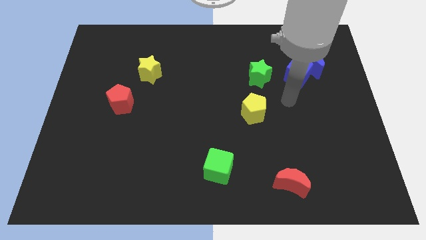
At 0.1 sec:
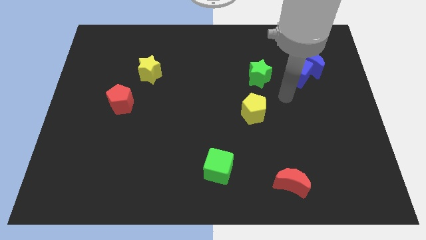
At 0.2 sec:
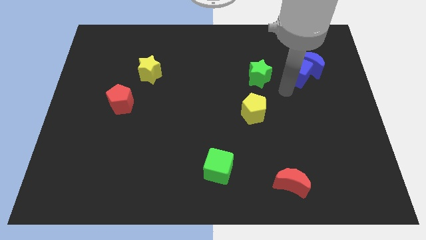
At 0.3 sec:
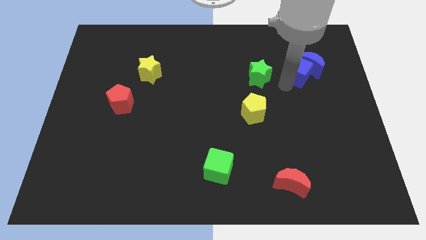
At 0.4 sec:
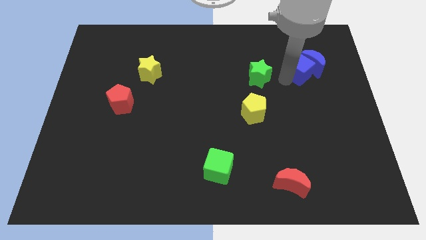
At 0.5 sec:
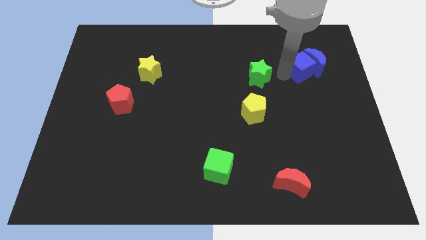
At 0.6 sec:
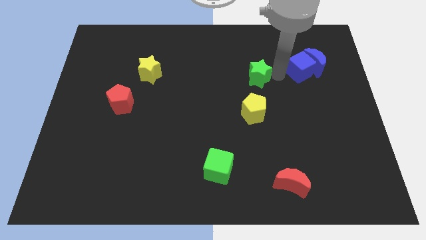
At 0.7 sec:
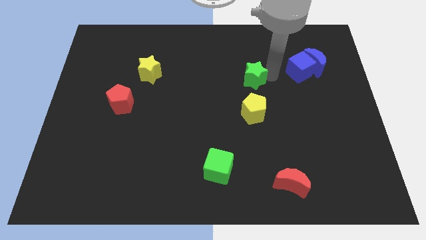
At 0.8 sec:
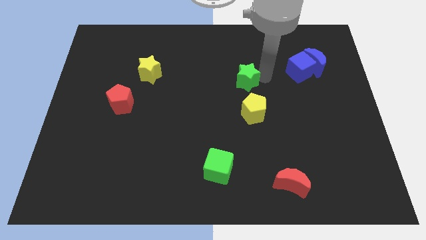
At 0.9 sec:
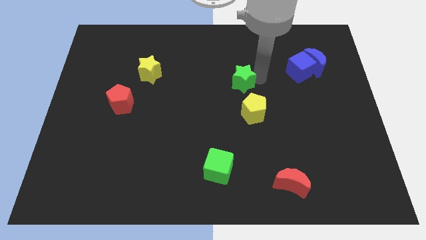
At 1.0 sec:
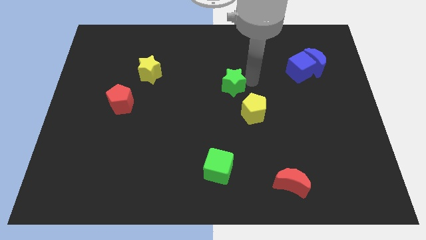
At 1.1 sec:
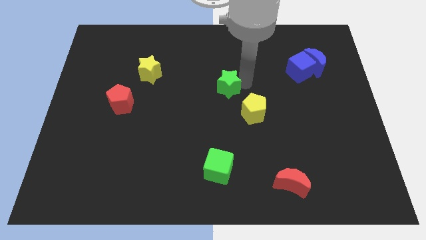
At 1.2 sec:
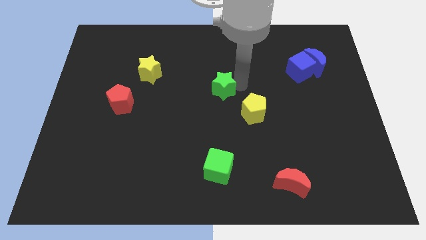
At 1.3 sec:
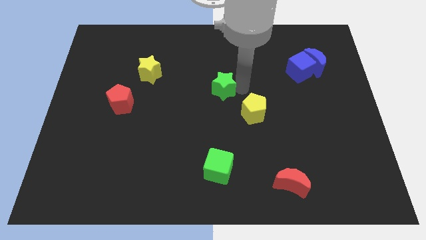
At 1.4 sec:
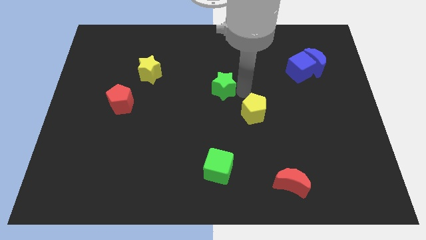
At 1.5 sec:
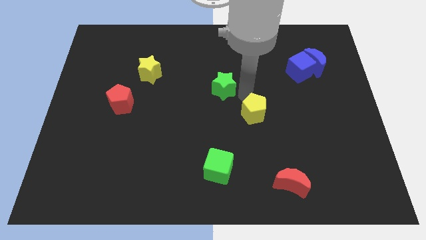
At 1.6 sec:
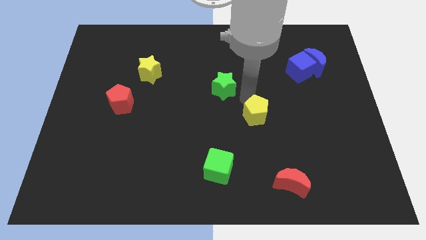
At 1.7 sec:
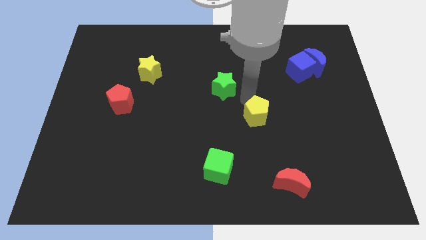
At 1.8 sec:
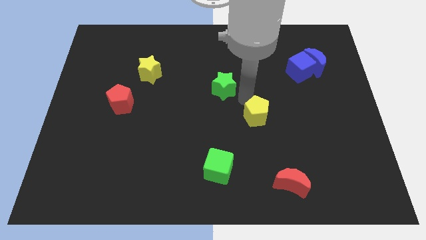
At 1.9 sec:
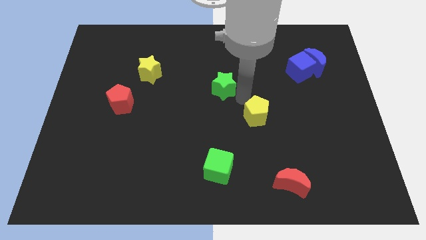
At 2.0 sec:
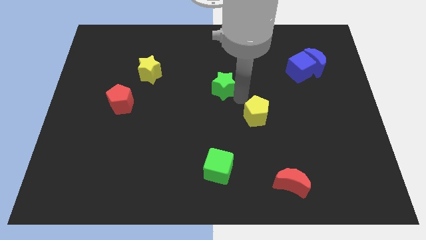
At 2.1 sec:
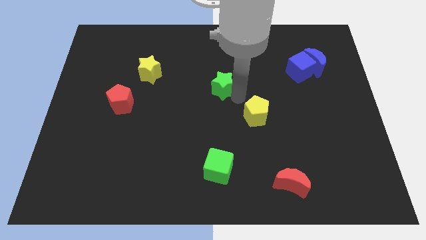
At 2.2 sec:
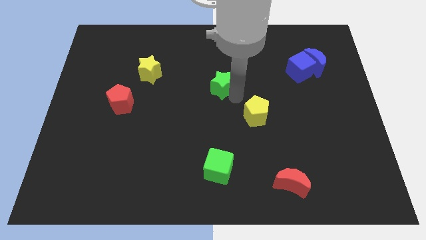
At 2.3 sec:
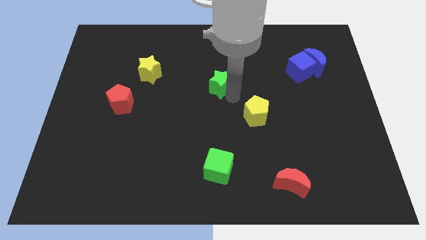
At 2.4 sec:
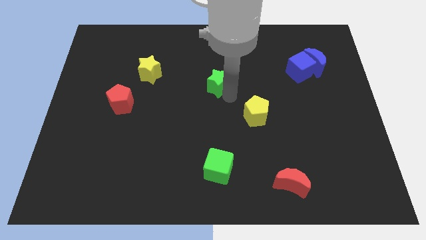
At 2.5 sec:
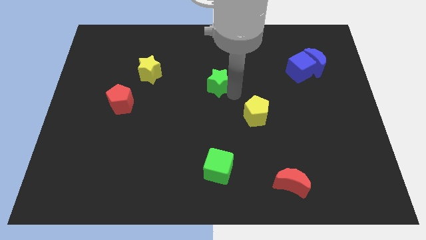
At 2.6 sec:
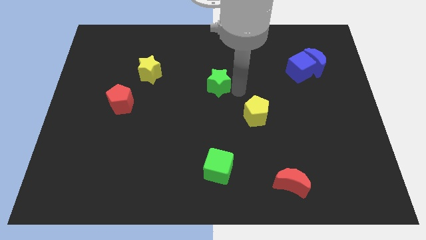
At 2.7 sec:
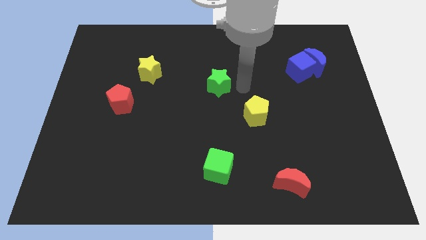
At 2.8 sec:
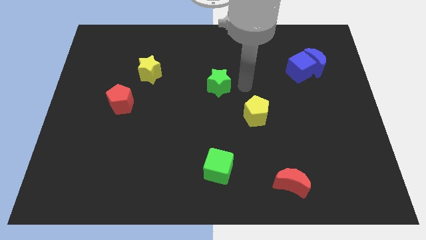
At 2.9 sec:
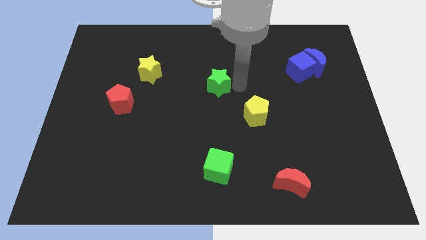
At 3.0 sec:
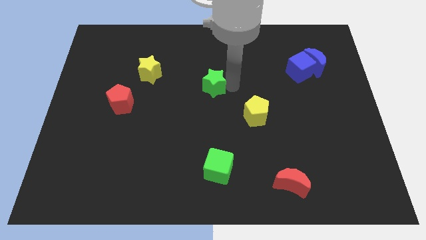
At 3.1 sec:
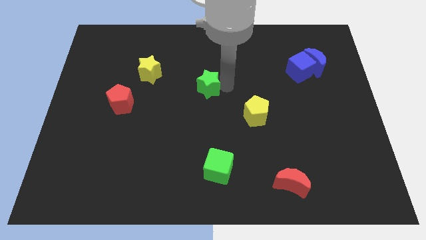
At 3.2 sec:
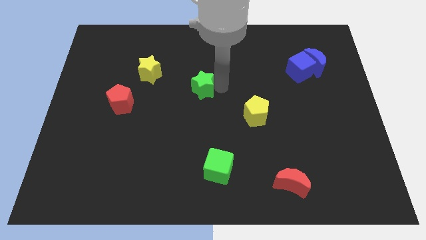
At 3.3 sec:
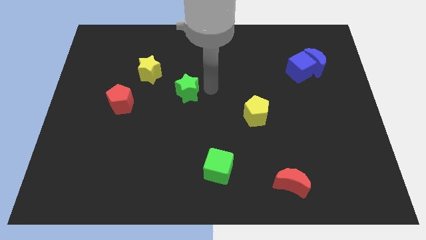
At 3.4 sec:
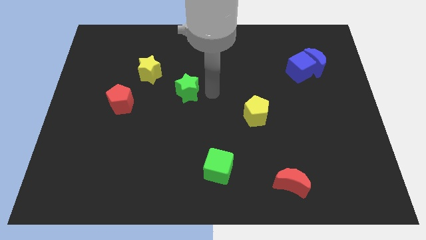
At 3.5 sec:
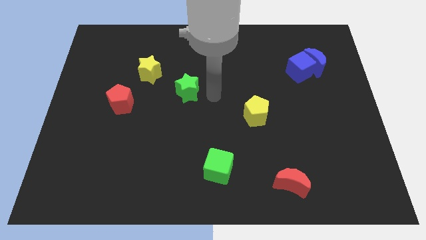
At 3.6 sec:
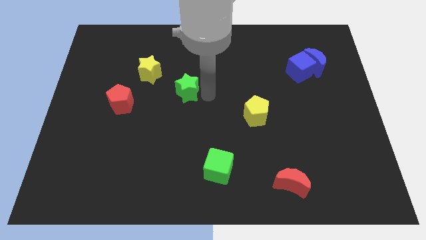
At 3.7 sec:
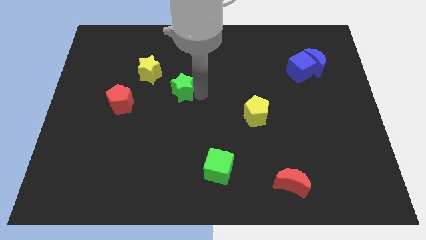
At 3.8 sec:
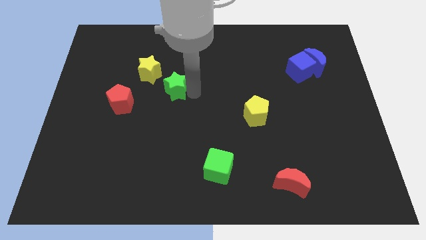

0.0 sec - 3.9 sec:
push the green star left

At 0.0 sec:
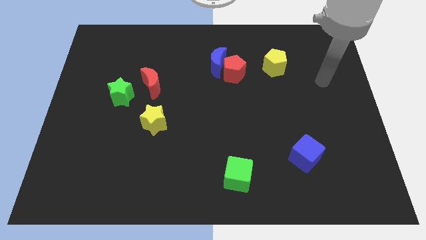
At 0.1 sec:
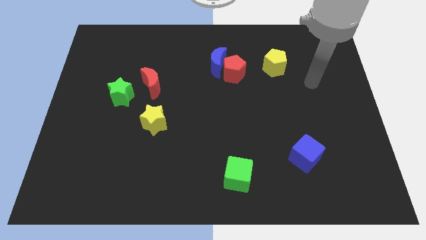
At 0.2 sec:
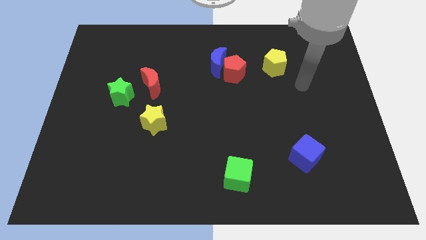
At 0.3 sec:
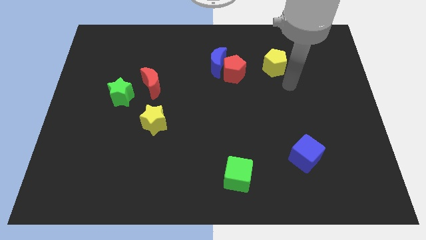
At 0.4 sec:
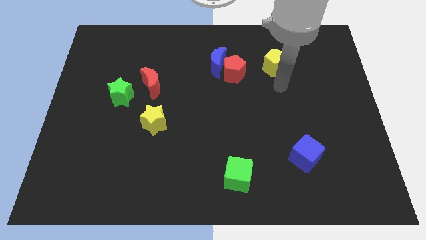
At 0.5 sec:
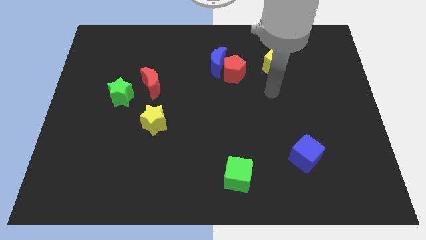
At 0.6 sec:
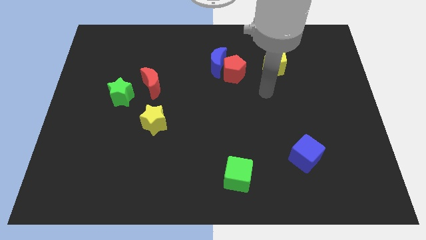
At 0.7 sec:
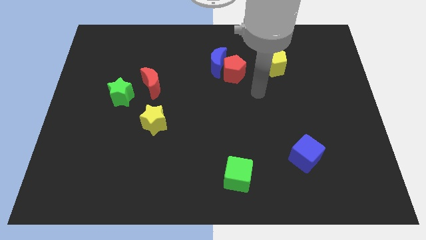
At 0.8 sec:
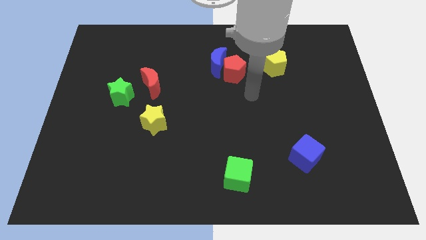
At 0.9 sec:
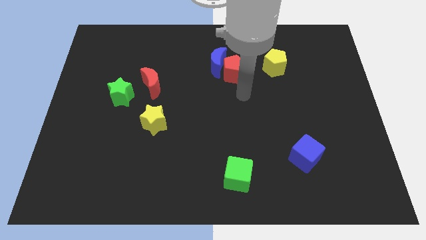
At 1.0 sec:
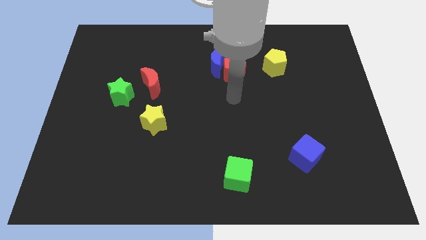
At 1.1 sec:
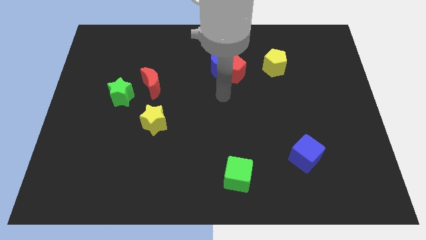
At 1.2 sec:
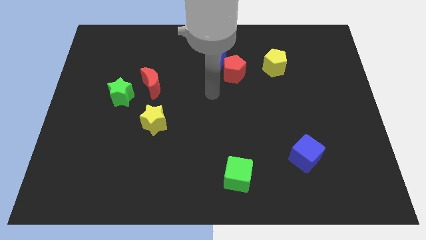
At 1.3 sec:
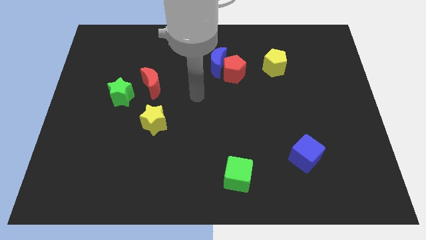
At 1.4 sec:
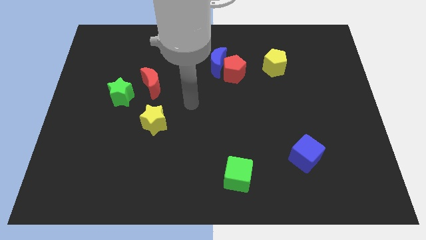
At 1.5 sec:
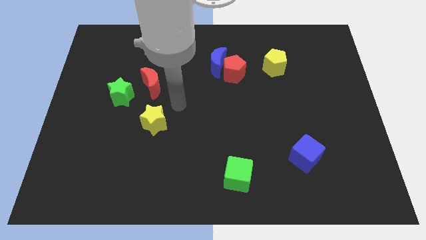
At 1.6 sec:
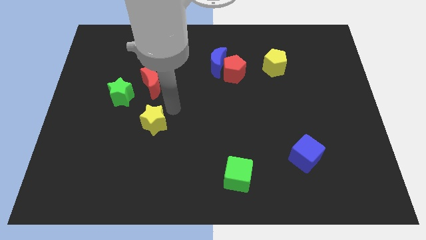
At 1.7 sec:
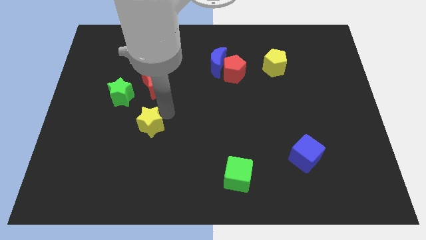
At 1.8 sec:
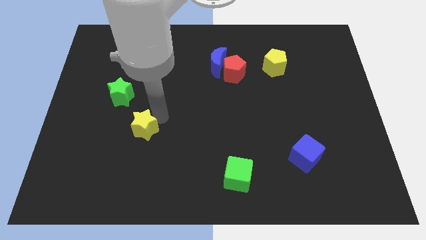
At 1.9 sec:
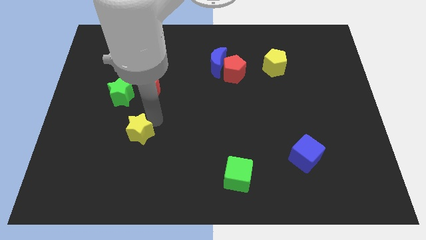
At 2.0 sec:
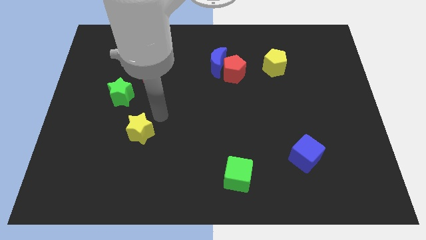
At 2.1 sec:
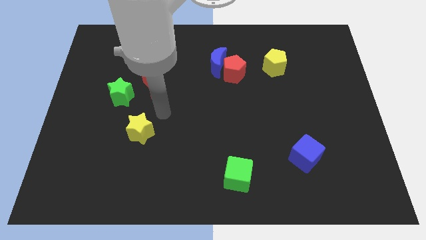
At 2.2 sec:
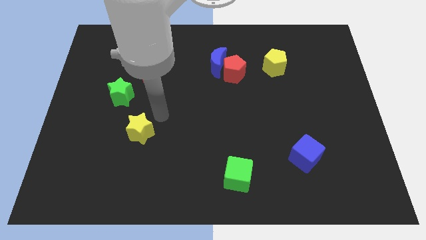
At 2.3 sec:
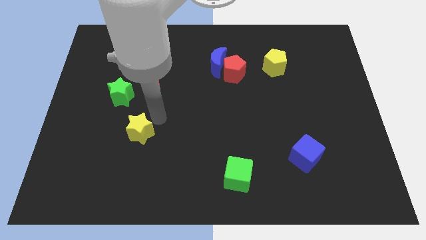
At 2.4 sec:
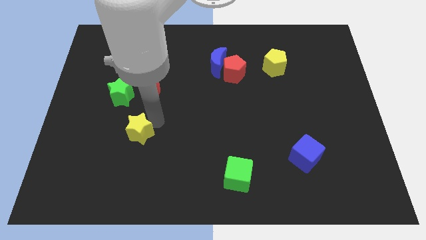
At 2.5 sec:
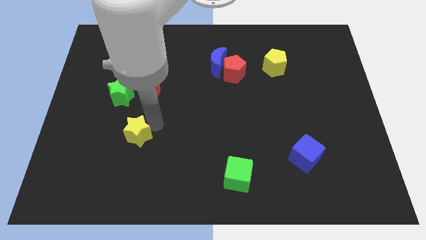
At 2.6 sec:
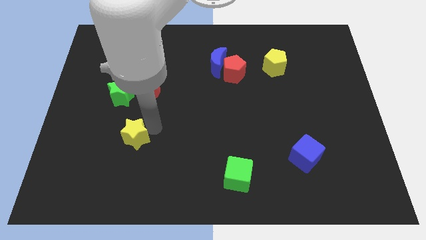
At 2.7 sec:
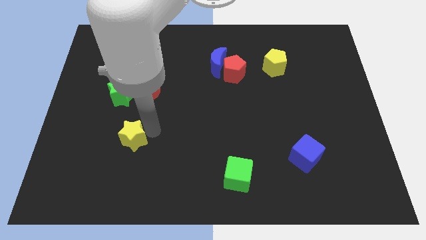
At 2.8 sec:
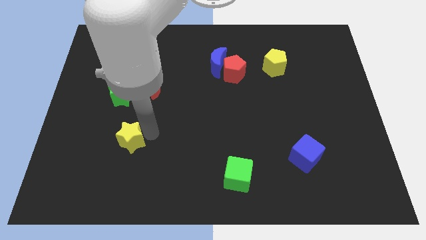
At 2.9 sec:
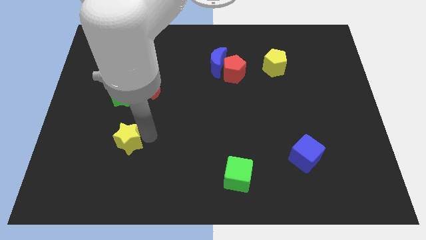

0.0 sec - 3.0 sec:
slightly slide the yellow star diagonally down and to the left

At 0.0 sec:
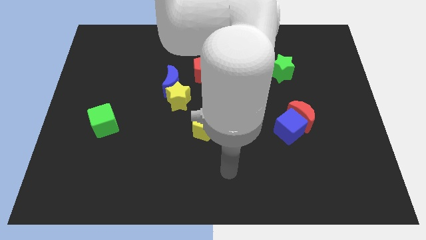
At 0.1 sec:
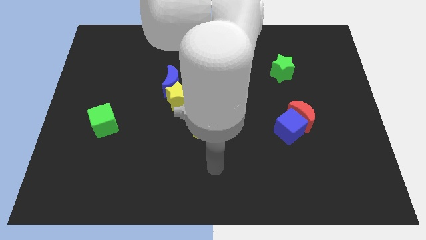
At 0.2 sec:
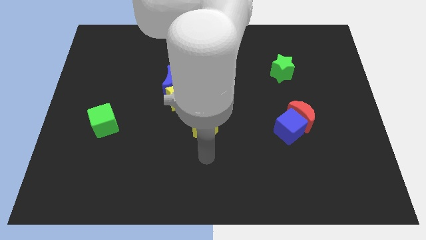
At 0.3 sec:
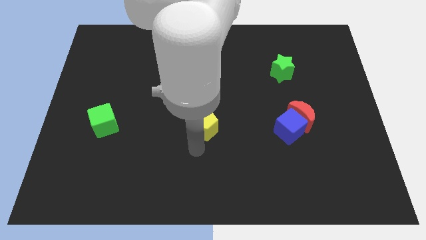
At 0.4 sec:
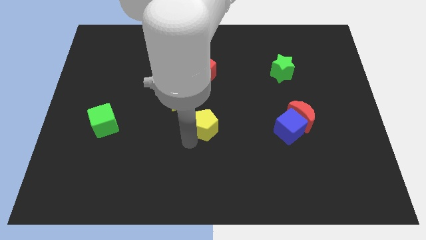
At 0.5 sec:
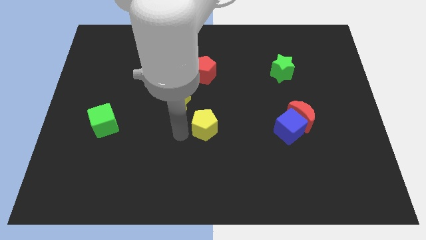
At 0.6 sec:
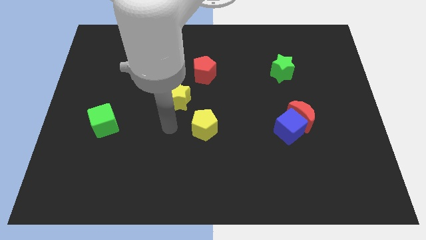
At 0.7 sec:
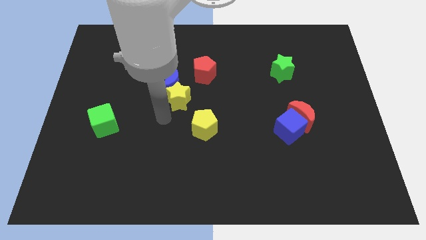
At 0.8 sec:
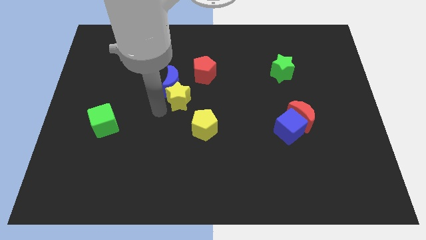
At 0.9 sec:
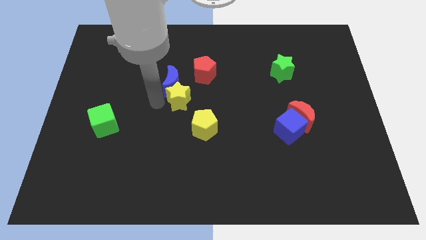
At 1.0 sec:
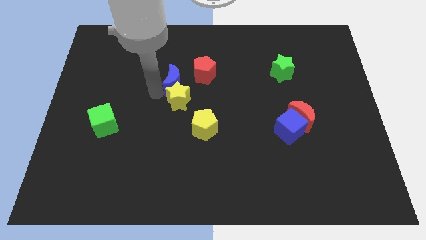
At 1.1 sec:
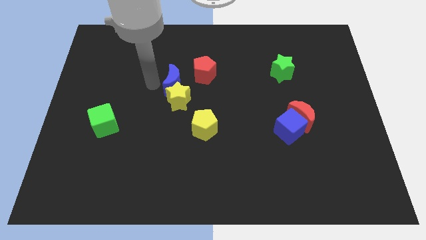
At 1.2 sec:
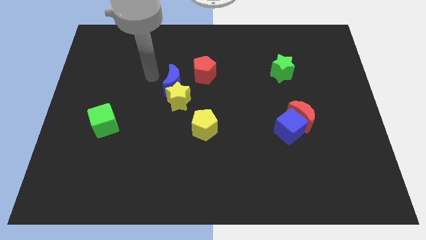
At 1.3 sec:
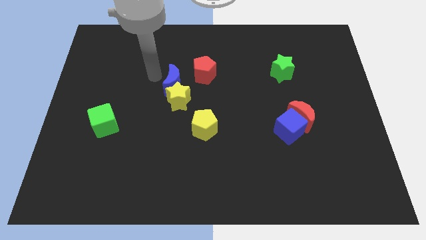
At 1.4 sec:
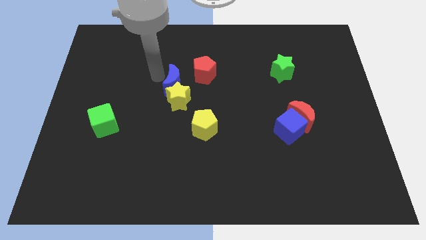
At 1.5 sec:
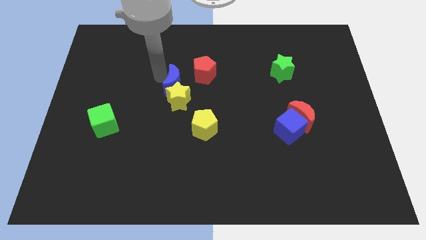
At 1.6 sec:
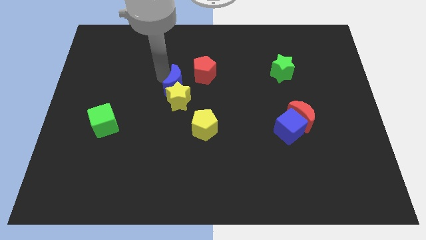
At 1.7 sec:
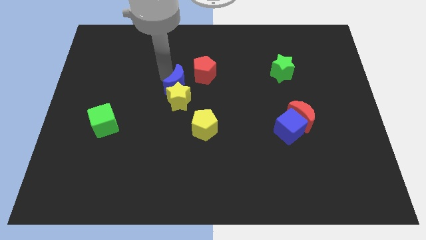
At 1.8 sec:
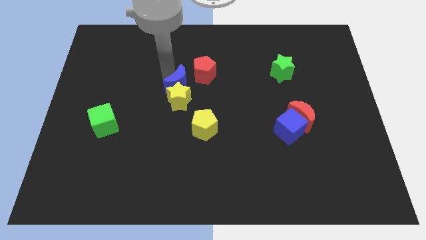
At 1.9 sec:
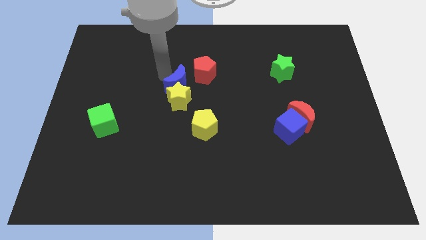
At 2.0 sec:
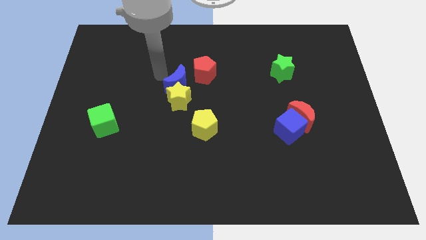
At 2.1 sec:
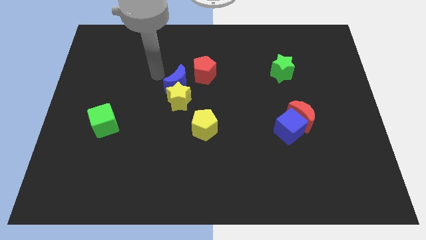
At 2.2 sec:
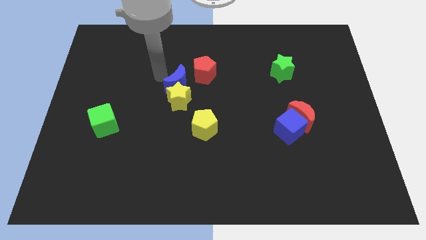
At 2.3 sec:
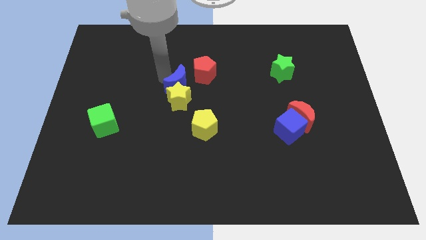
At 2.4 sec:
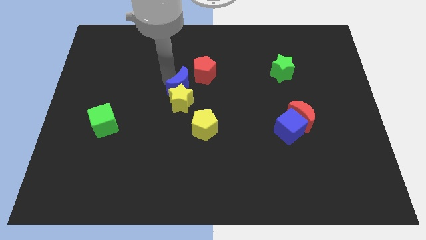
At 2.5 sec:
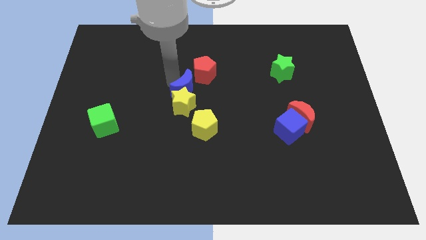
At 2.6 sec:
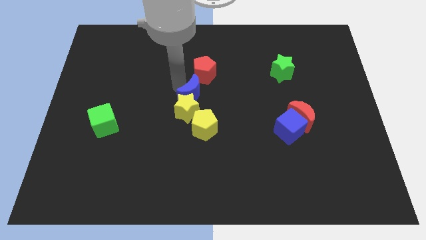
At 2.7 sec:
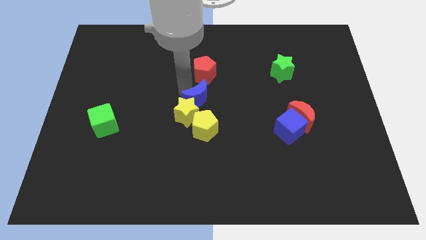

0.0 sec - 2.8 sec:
slightly push the blue moon downwards and then right
